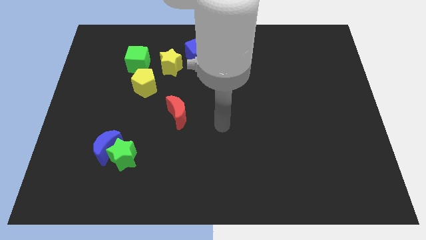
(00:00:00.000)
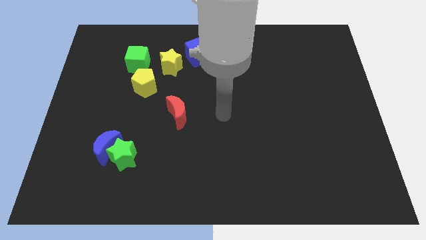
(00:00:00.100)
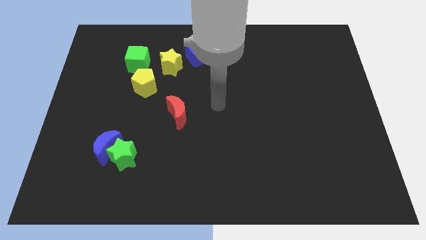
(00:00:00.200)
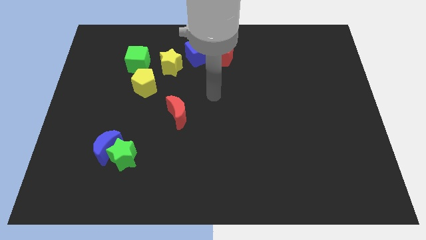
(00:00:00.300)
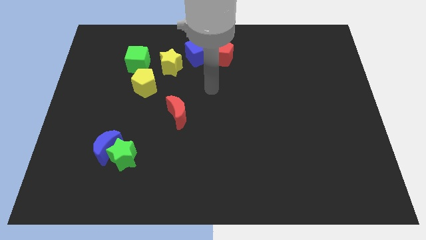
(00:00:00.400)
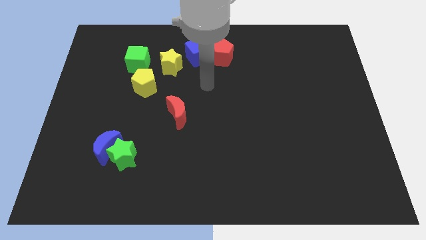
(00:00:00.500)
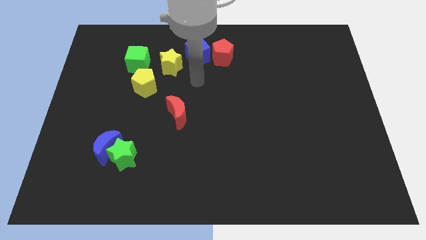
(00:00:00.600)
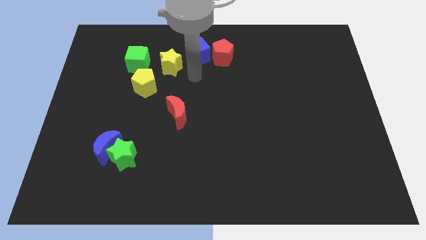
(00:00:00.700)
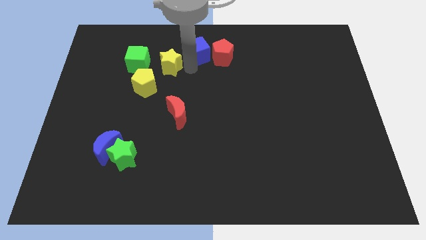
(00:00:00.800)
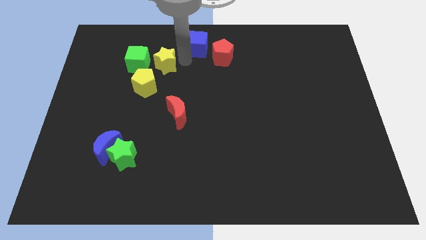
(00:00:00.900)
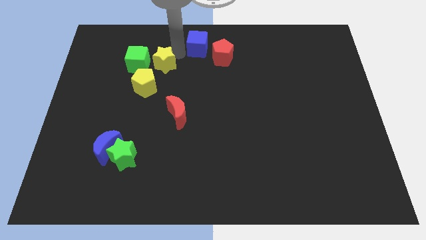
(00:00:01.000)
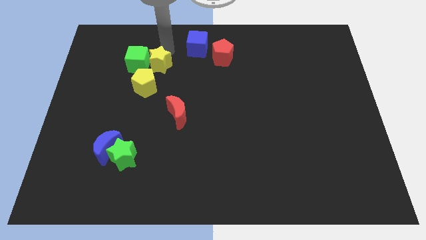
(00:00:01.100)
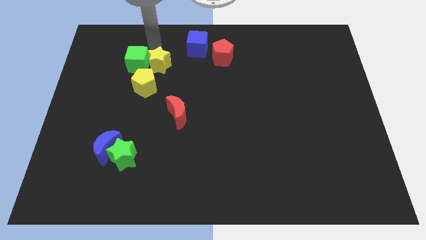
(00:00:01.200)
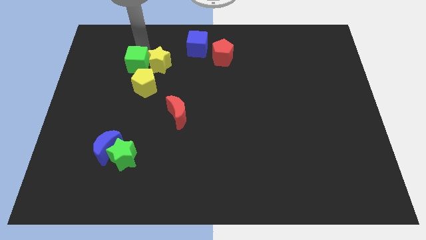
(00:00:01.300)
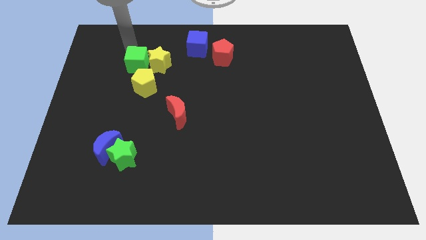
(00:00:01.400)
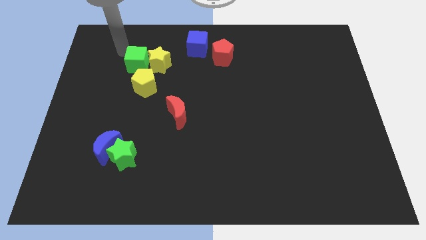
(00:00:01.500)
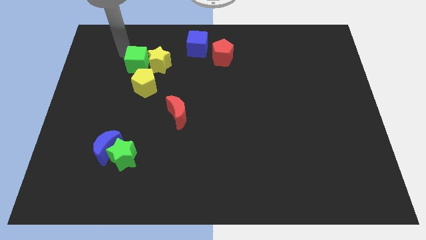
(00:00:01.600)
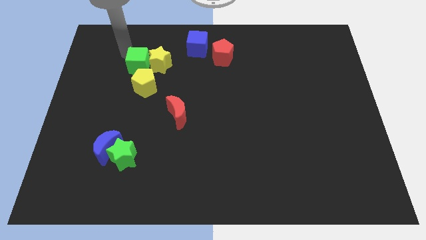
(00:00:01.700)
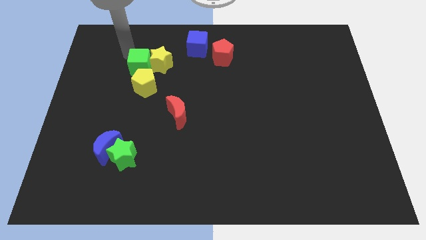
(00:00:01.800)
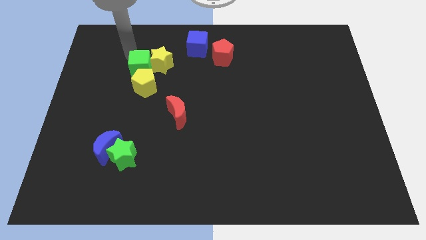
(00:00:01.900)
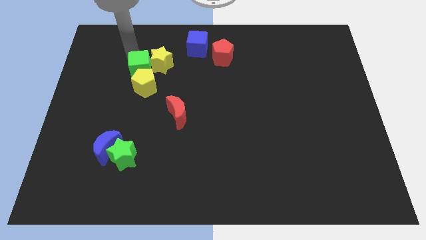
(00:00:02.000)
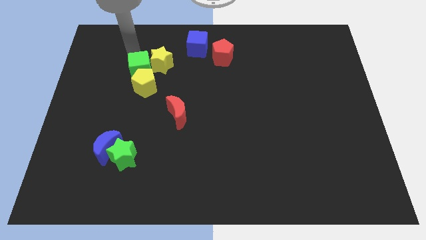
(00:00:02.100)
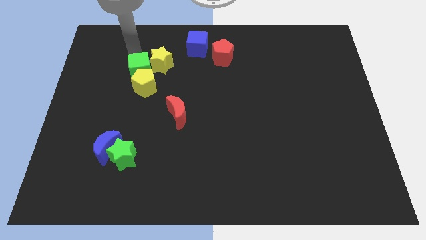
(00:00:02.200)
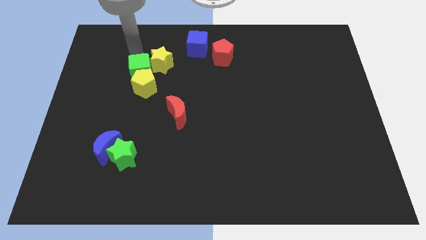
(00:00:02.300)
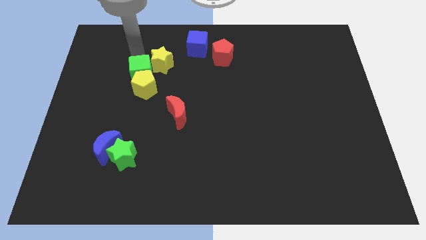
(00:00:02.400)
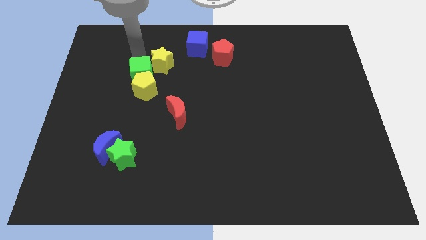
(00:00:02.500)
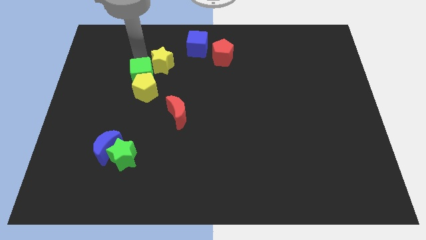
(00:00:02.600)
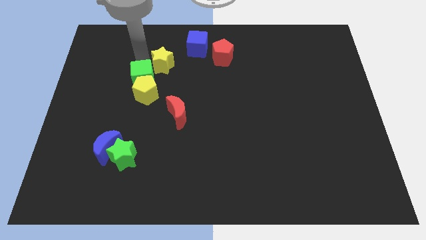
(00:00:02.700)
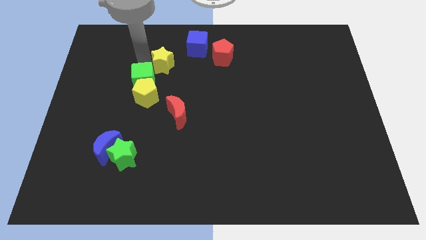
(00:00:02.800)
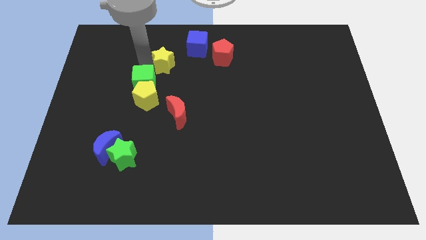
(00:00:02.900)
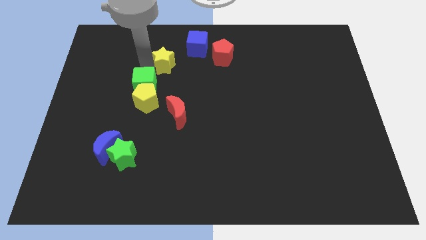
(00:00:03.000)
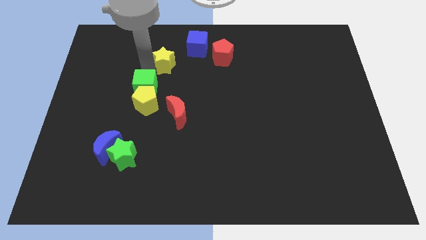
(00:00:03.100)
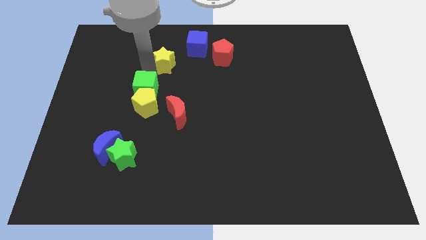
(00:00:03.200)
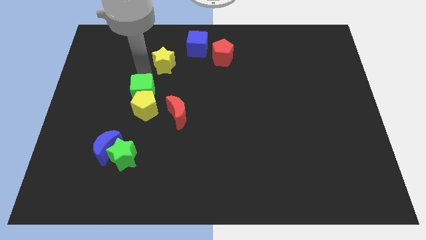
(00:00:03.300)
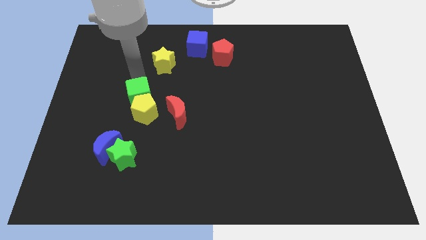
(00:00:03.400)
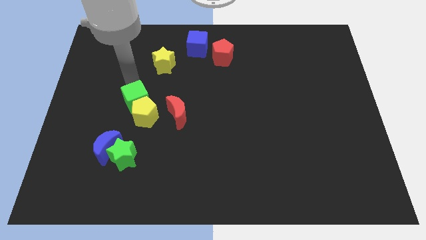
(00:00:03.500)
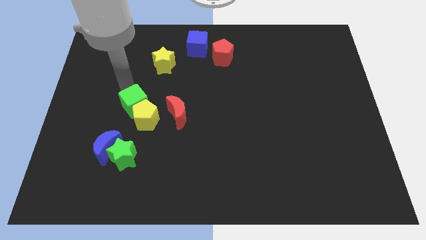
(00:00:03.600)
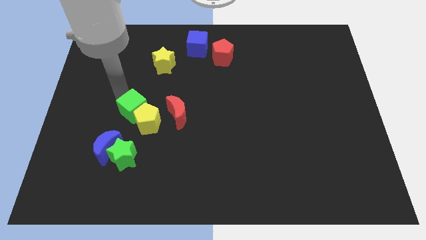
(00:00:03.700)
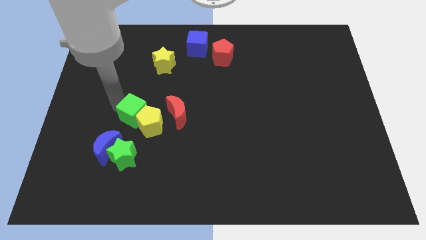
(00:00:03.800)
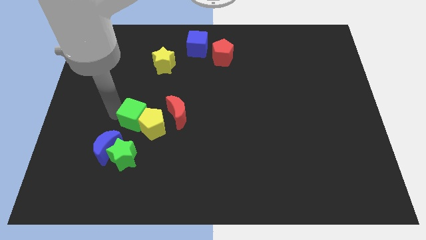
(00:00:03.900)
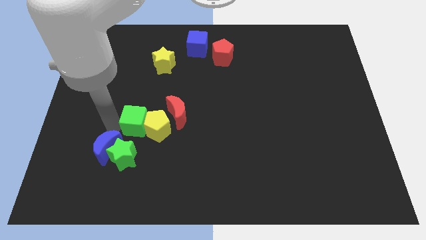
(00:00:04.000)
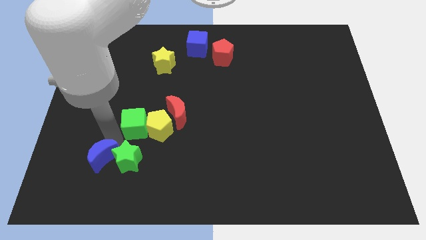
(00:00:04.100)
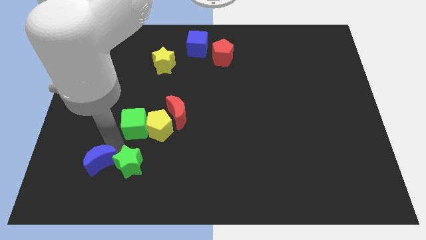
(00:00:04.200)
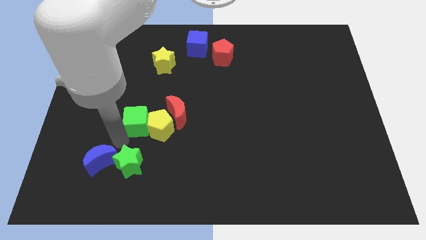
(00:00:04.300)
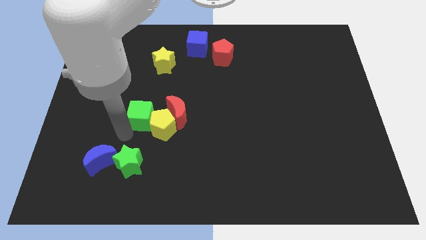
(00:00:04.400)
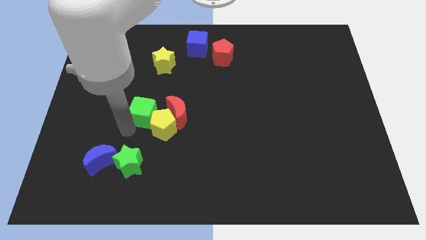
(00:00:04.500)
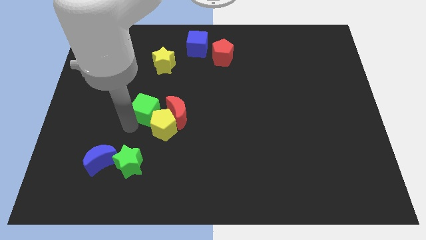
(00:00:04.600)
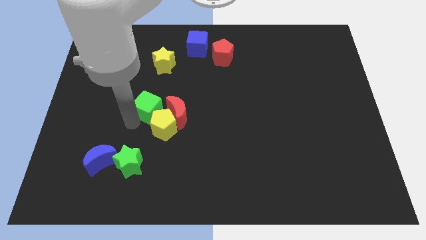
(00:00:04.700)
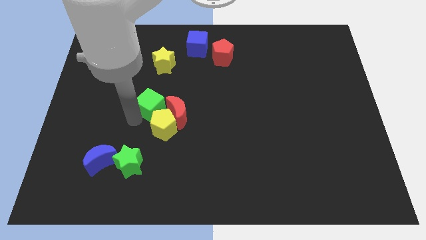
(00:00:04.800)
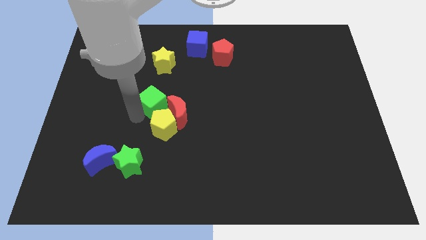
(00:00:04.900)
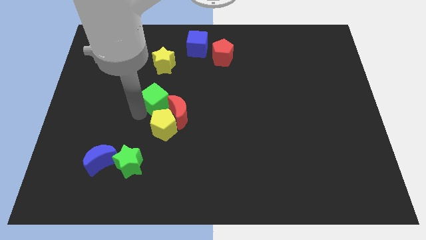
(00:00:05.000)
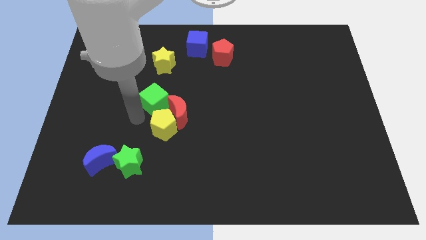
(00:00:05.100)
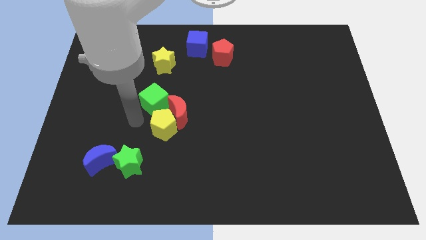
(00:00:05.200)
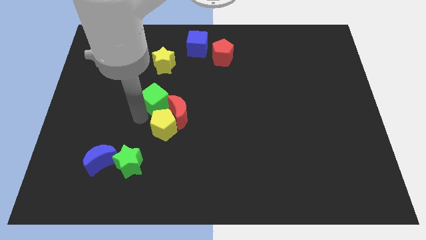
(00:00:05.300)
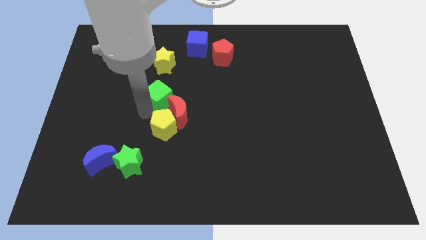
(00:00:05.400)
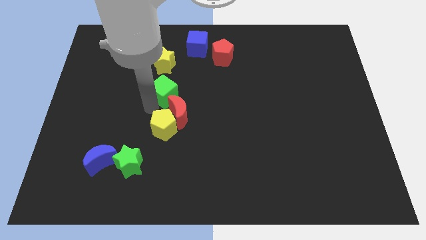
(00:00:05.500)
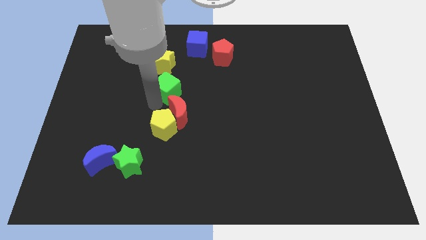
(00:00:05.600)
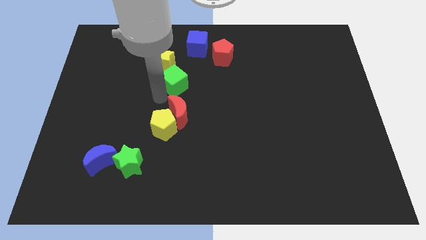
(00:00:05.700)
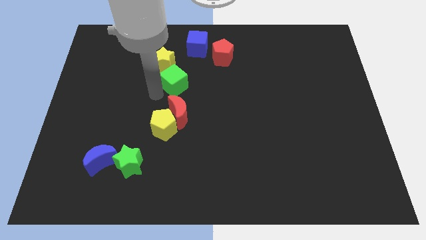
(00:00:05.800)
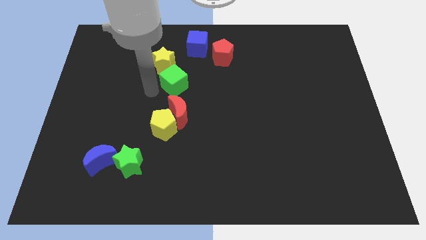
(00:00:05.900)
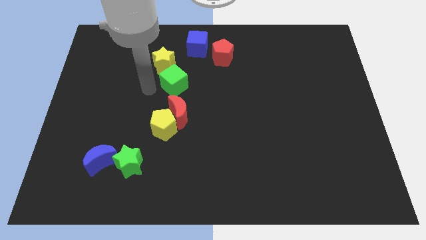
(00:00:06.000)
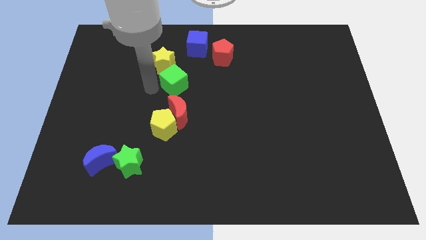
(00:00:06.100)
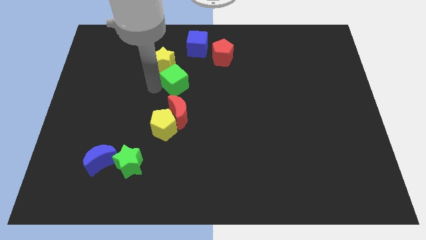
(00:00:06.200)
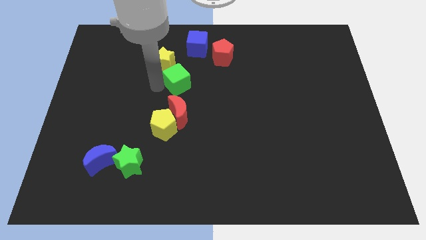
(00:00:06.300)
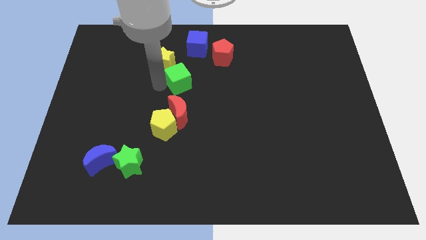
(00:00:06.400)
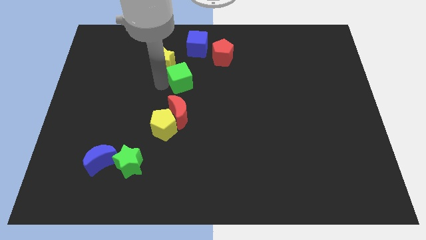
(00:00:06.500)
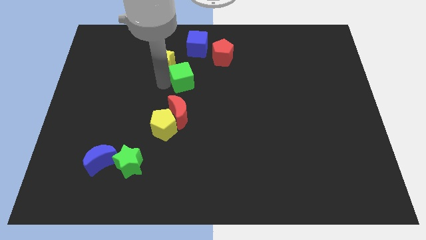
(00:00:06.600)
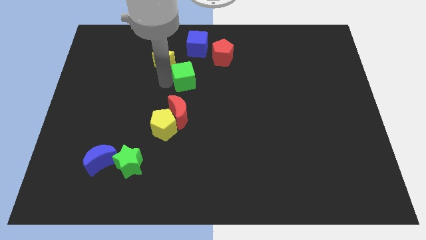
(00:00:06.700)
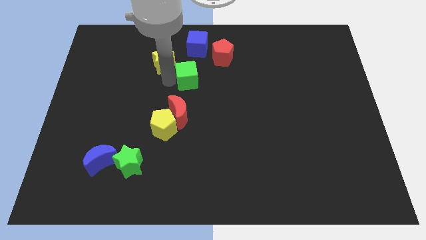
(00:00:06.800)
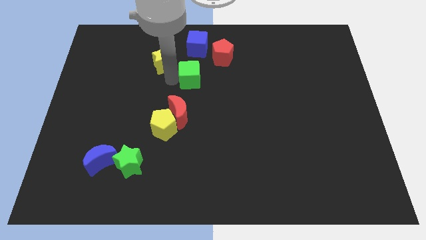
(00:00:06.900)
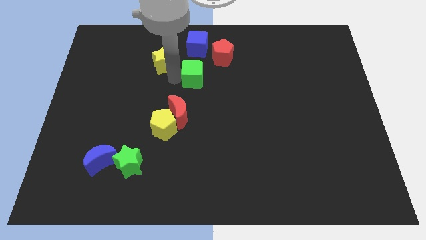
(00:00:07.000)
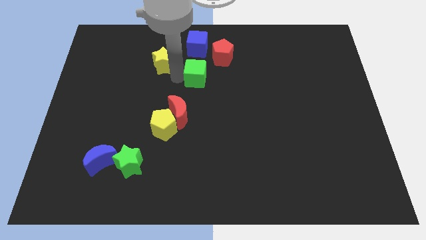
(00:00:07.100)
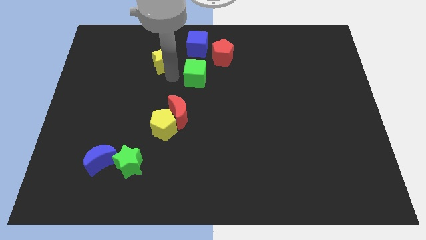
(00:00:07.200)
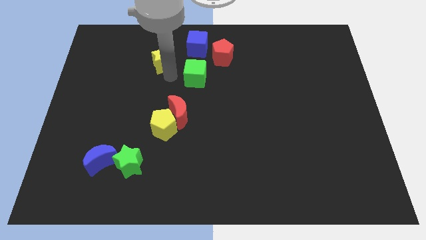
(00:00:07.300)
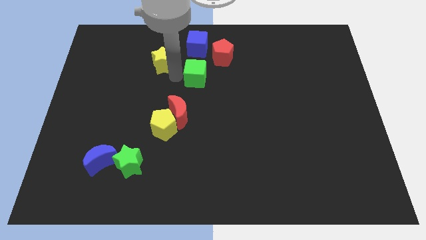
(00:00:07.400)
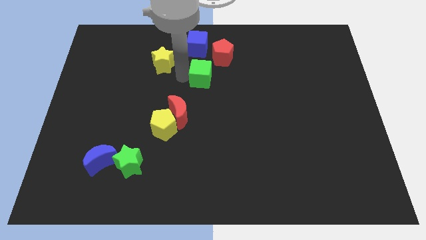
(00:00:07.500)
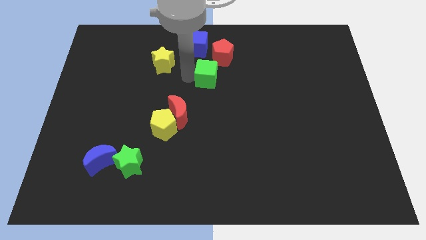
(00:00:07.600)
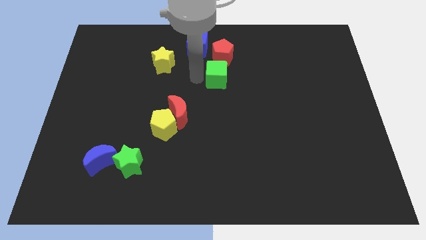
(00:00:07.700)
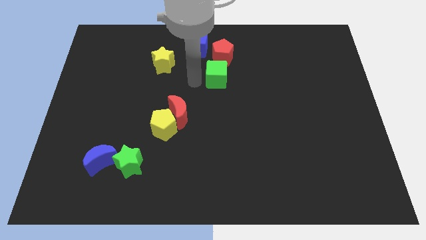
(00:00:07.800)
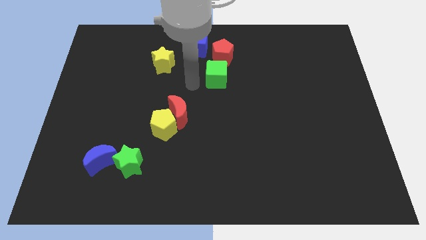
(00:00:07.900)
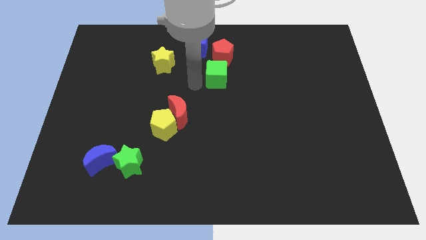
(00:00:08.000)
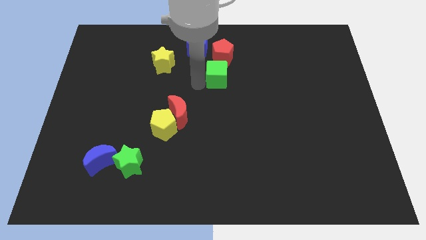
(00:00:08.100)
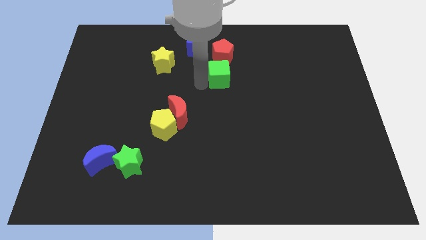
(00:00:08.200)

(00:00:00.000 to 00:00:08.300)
push the green cube to the right
